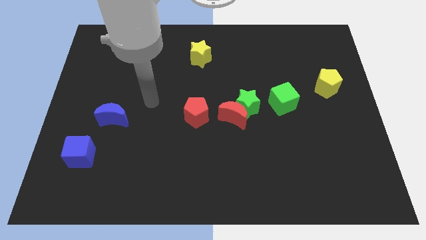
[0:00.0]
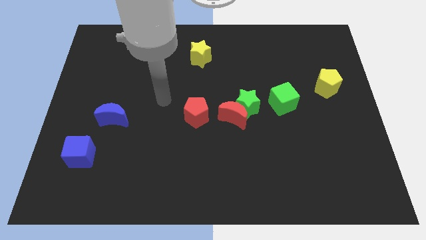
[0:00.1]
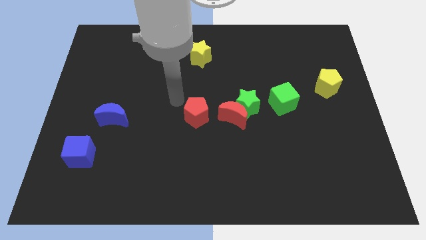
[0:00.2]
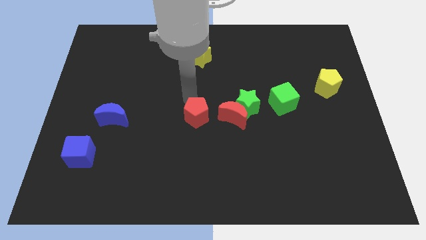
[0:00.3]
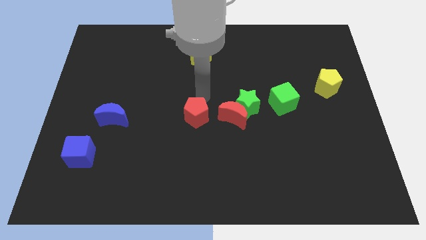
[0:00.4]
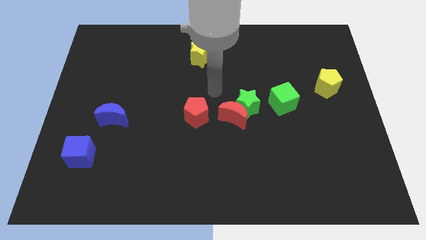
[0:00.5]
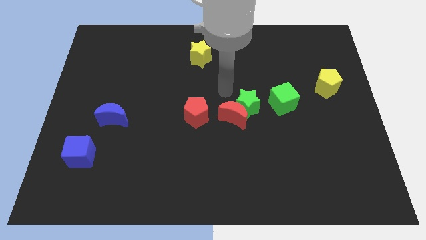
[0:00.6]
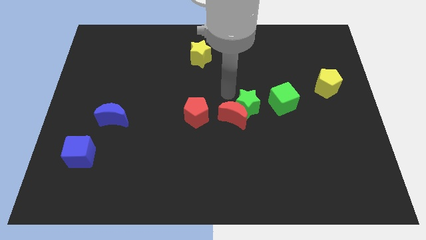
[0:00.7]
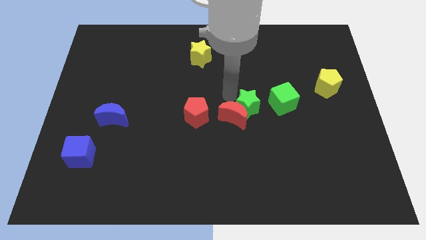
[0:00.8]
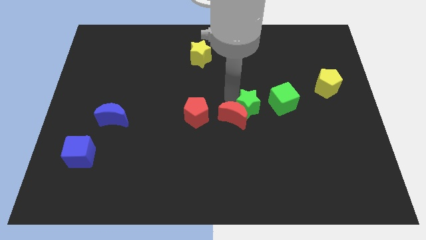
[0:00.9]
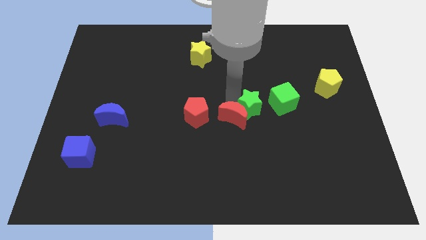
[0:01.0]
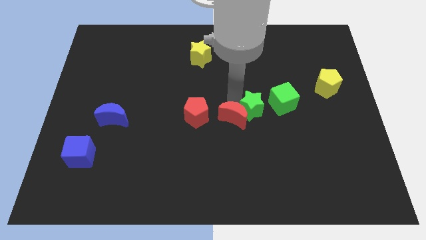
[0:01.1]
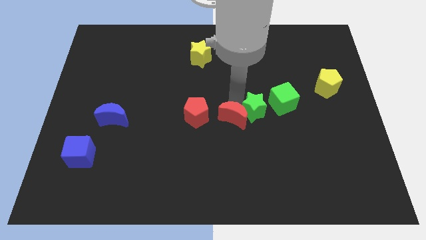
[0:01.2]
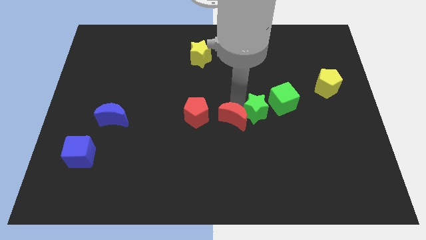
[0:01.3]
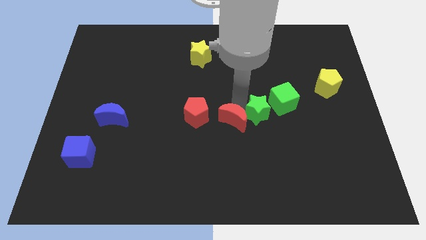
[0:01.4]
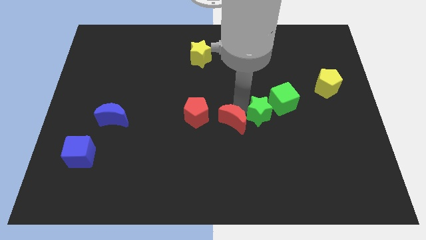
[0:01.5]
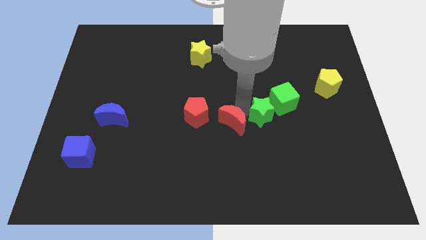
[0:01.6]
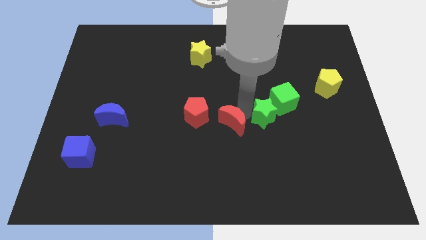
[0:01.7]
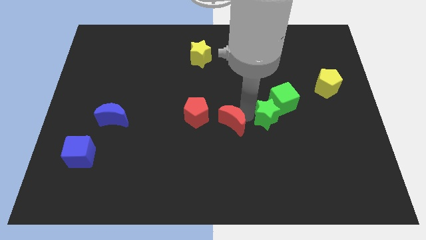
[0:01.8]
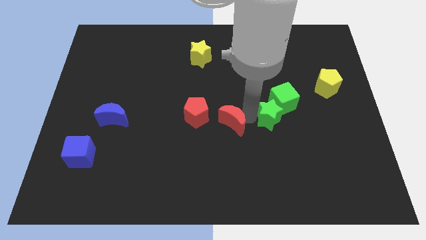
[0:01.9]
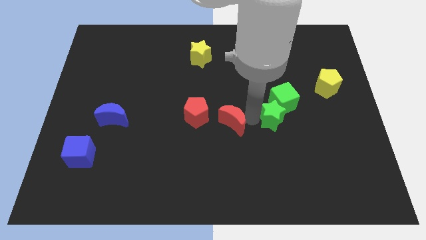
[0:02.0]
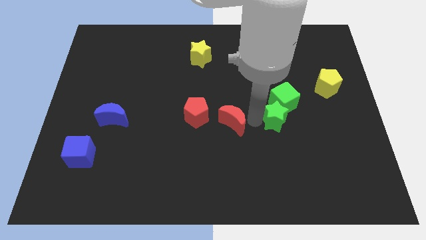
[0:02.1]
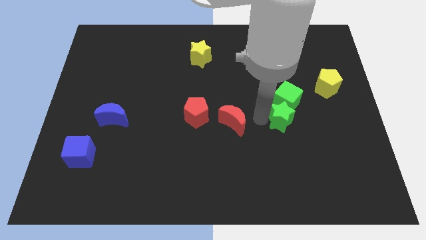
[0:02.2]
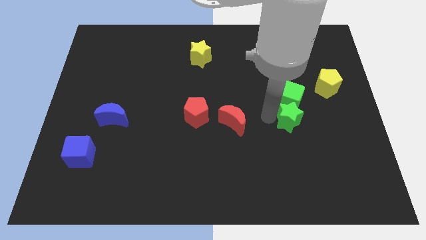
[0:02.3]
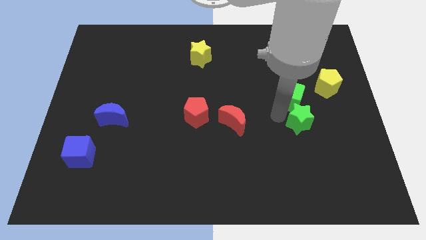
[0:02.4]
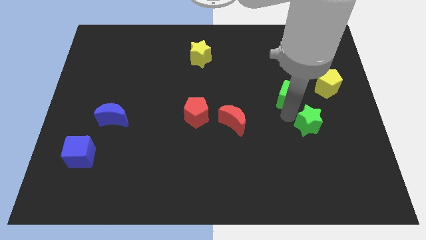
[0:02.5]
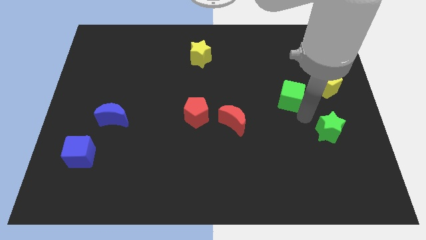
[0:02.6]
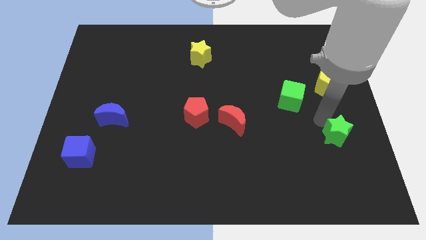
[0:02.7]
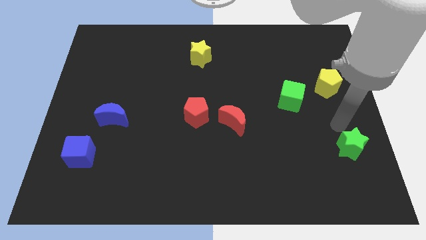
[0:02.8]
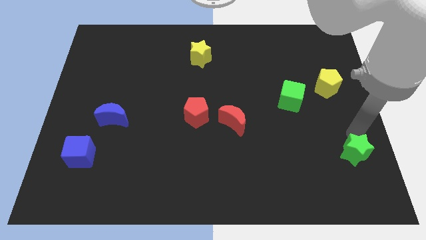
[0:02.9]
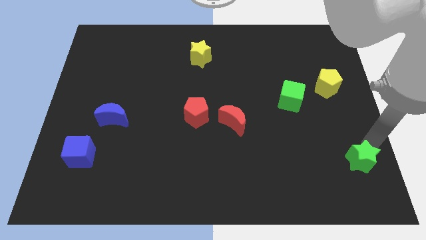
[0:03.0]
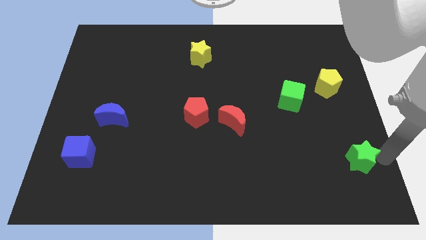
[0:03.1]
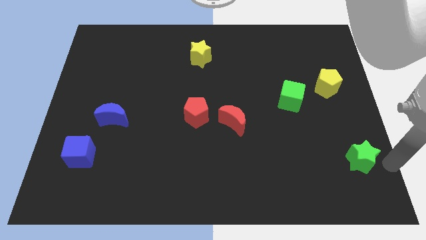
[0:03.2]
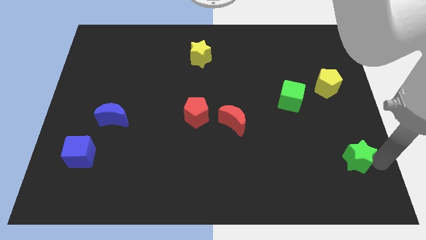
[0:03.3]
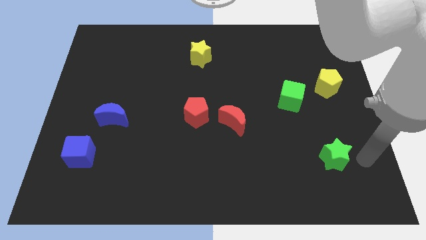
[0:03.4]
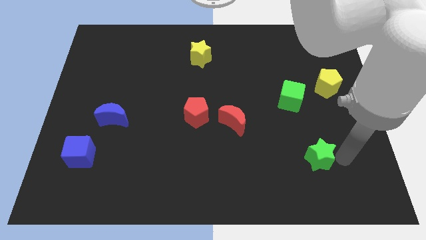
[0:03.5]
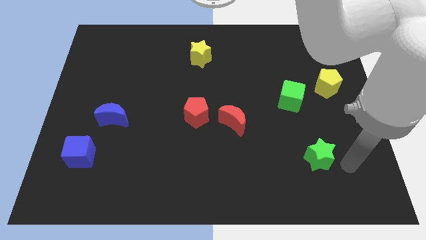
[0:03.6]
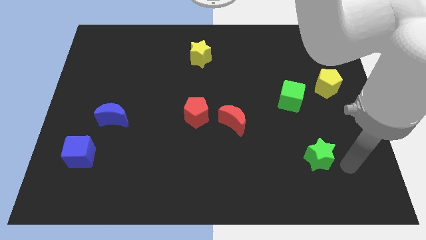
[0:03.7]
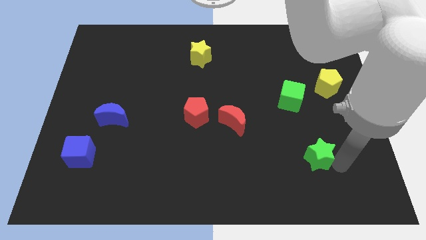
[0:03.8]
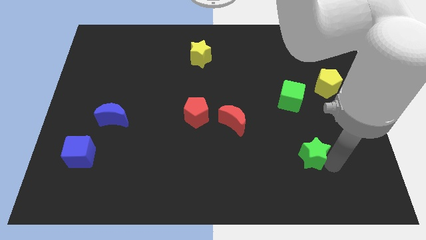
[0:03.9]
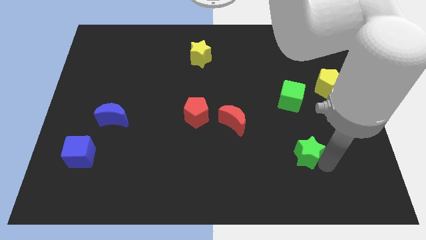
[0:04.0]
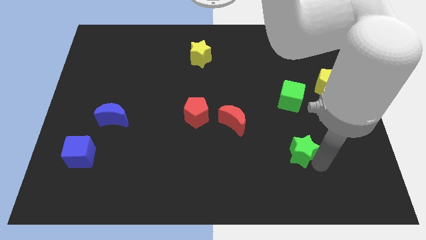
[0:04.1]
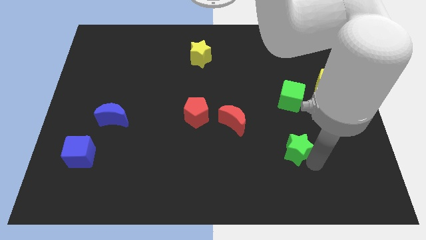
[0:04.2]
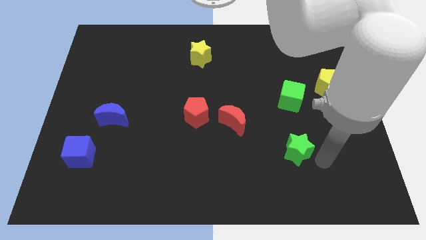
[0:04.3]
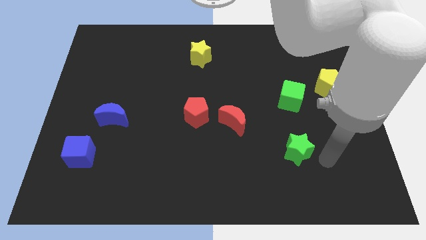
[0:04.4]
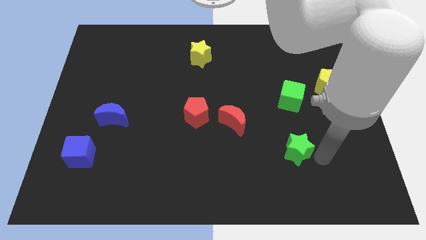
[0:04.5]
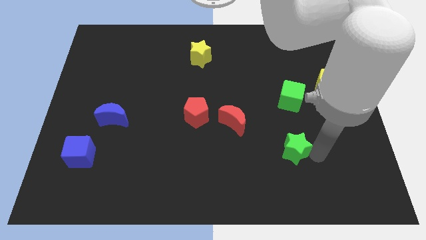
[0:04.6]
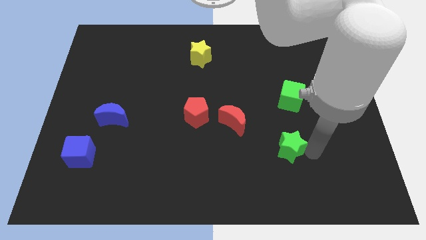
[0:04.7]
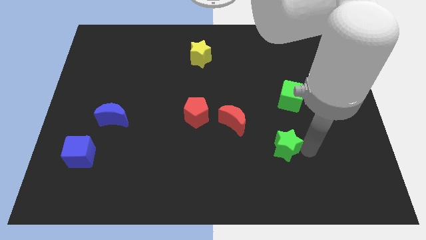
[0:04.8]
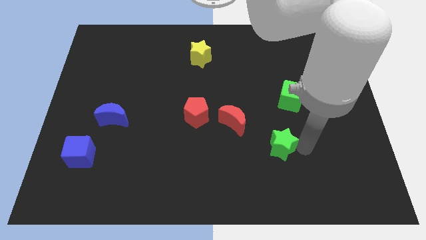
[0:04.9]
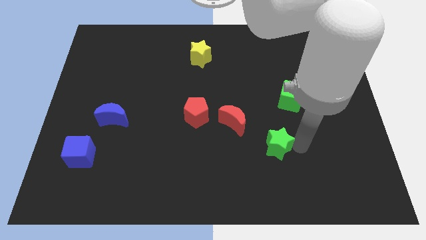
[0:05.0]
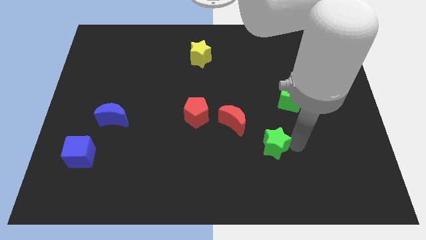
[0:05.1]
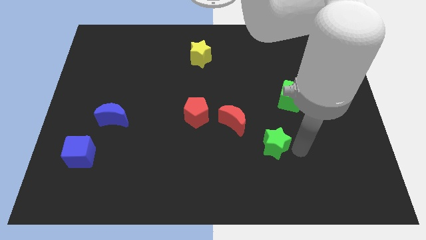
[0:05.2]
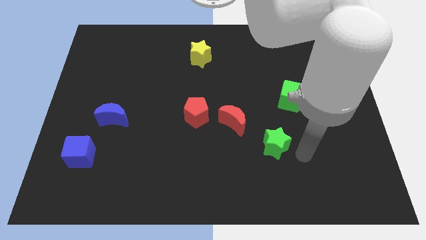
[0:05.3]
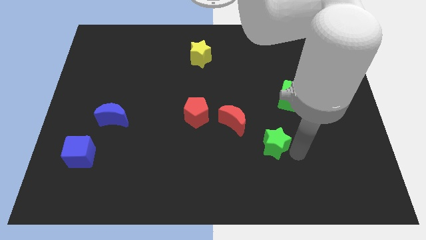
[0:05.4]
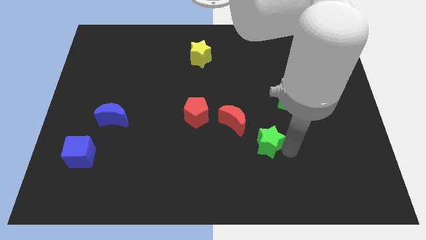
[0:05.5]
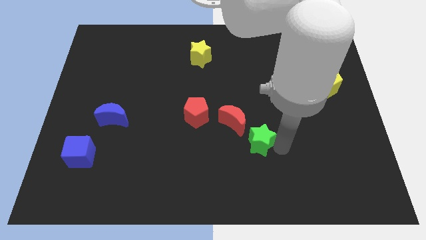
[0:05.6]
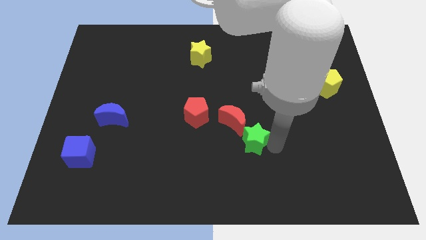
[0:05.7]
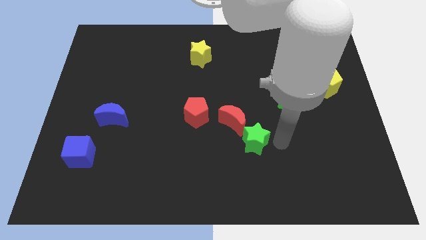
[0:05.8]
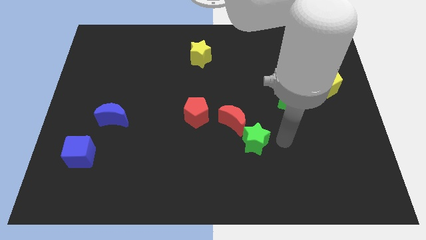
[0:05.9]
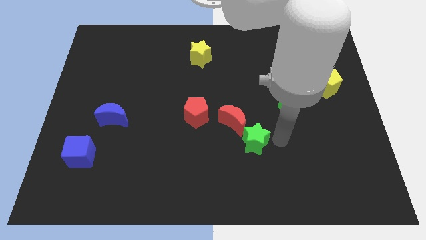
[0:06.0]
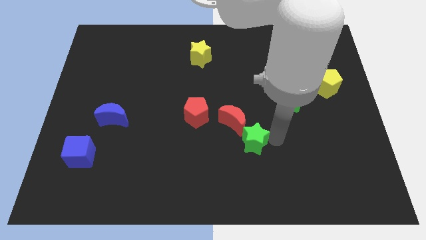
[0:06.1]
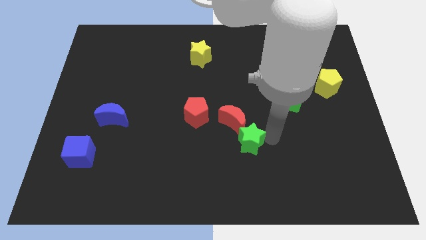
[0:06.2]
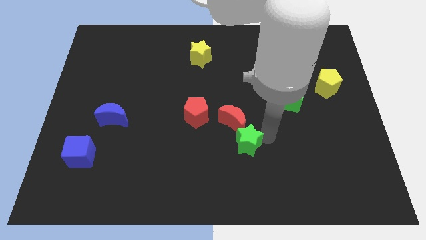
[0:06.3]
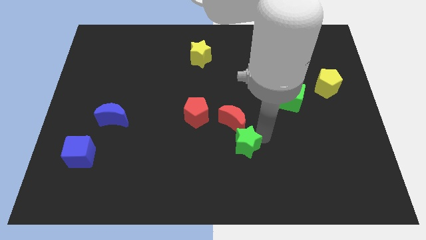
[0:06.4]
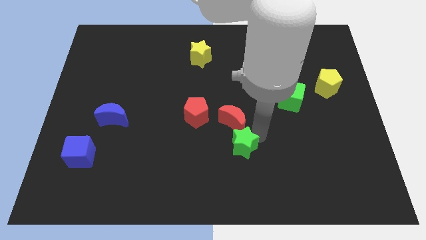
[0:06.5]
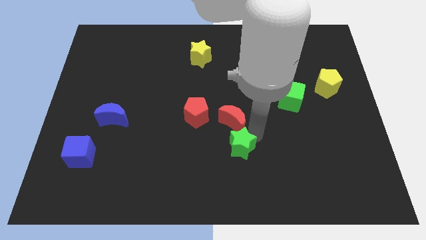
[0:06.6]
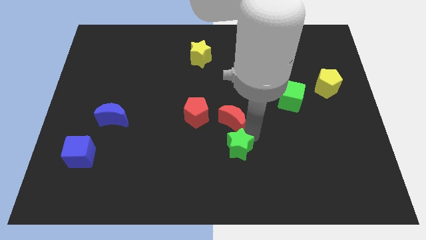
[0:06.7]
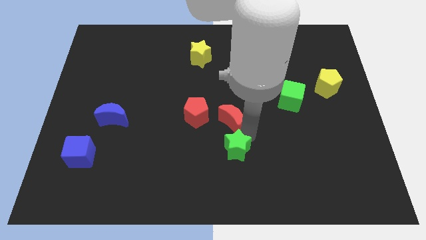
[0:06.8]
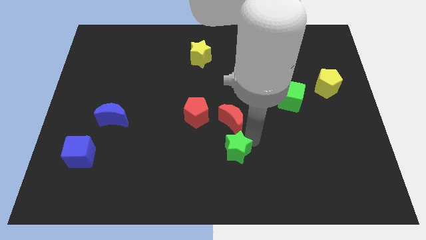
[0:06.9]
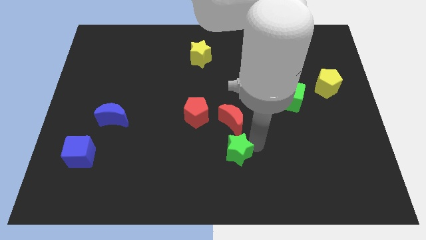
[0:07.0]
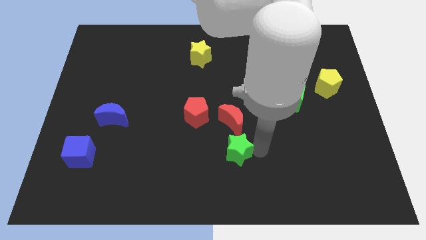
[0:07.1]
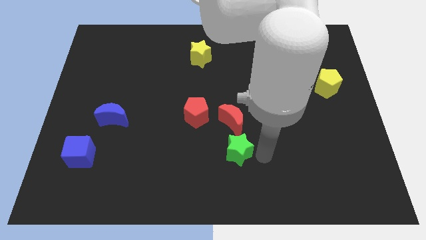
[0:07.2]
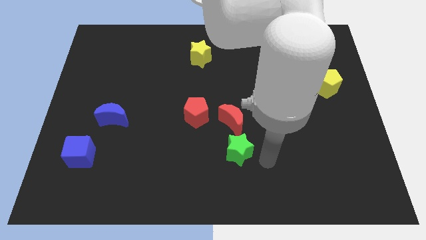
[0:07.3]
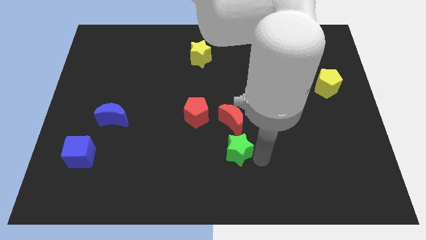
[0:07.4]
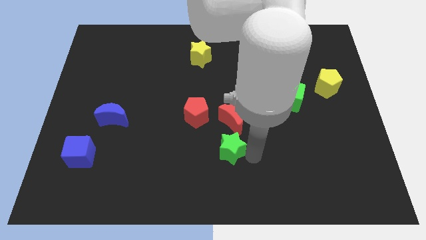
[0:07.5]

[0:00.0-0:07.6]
move the green star to the bottom left side of the red moon
